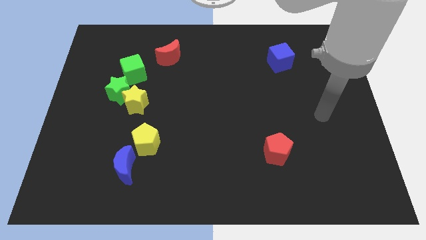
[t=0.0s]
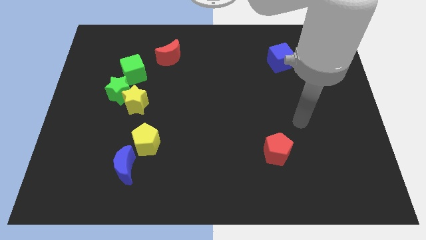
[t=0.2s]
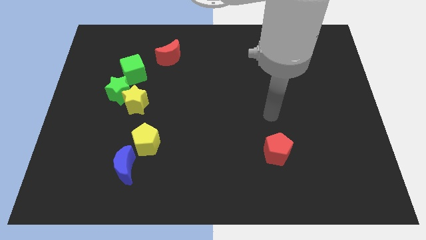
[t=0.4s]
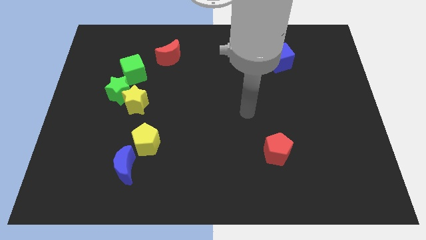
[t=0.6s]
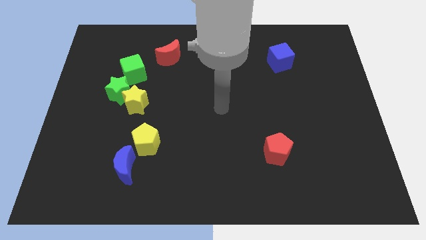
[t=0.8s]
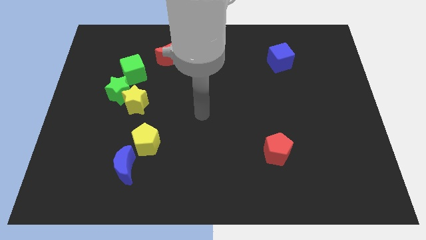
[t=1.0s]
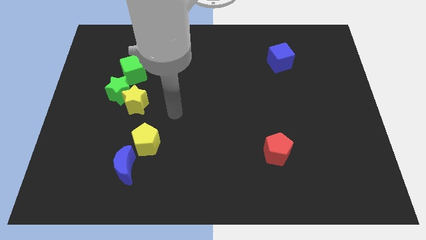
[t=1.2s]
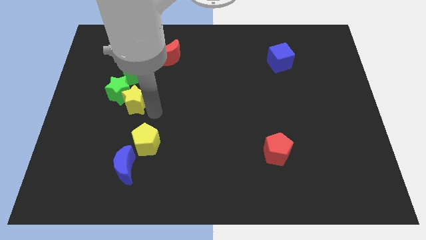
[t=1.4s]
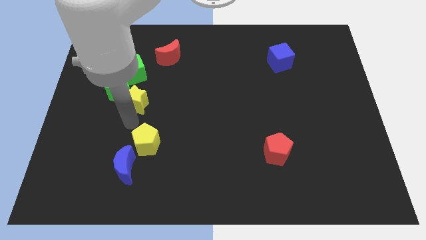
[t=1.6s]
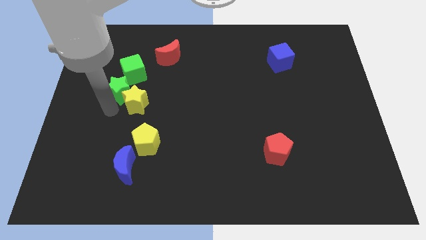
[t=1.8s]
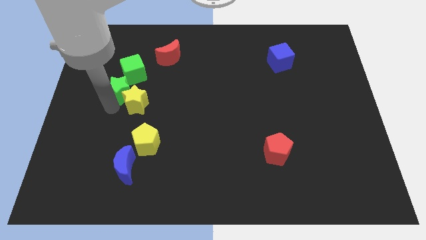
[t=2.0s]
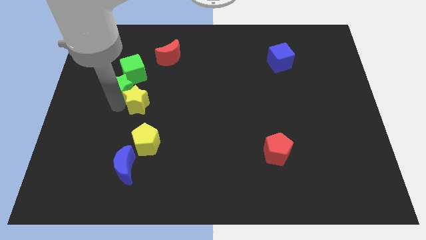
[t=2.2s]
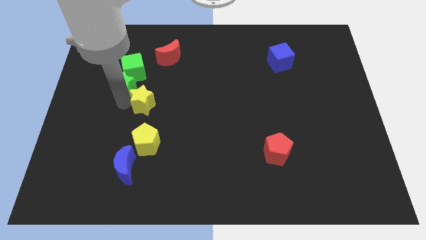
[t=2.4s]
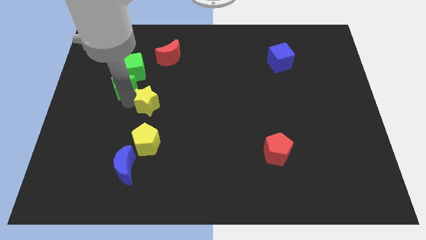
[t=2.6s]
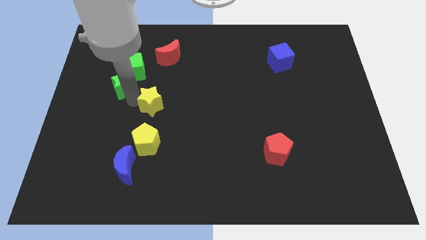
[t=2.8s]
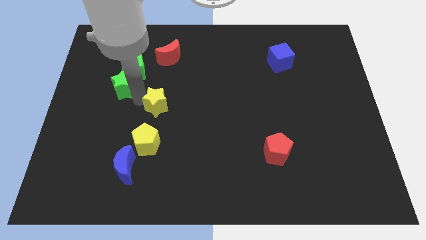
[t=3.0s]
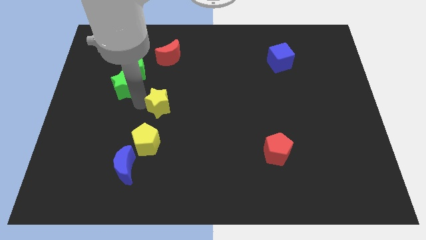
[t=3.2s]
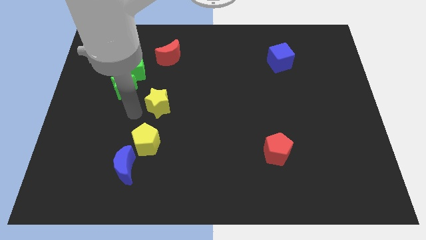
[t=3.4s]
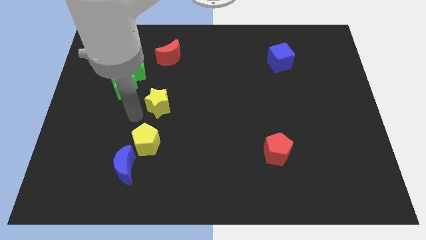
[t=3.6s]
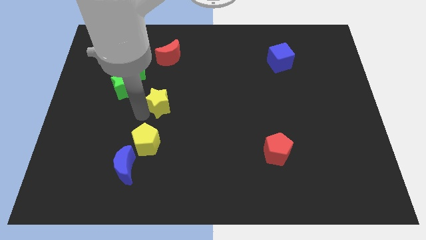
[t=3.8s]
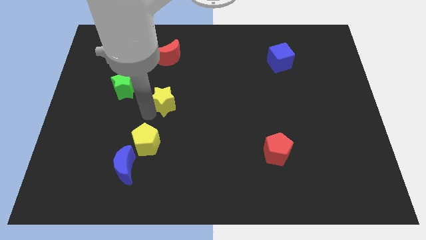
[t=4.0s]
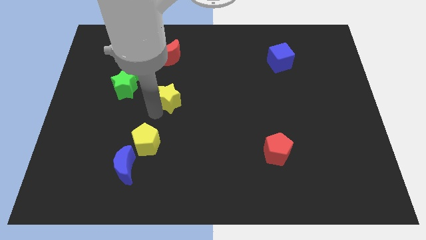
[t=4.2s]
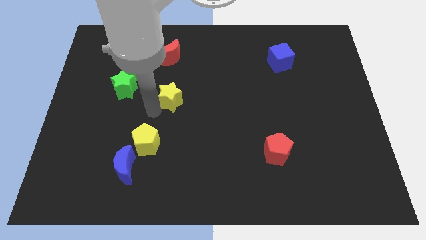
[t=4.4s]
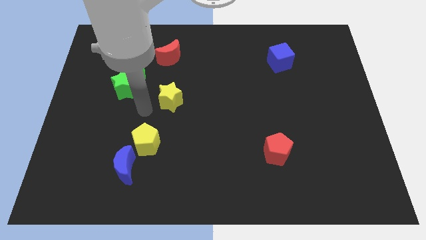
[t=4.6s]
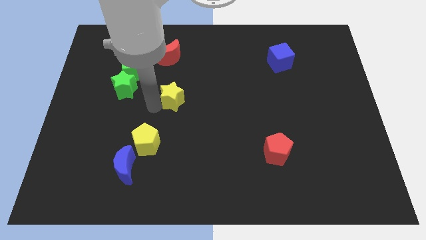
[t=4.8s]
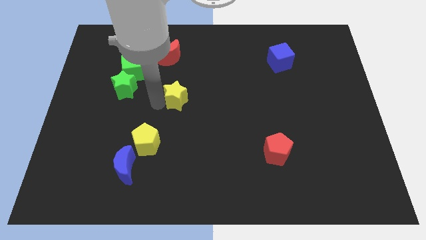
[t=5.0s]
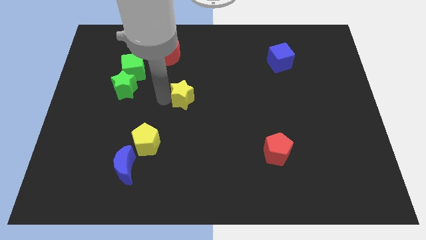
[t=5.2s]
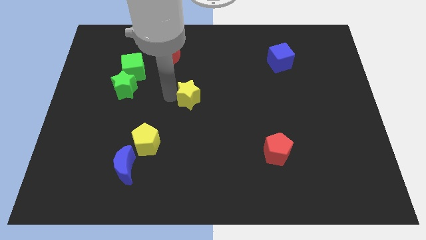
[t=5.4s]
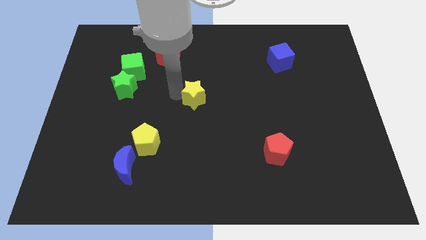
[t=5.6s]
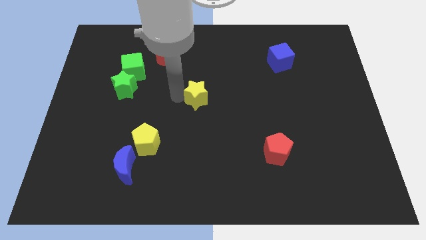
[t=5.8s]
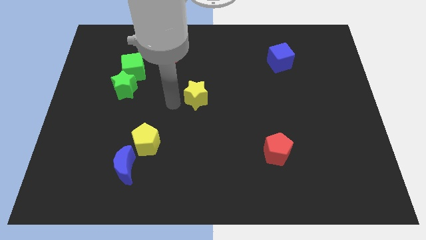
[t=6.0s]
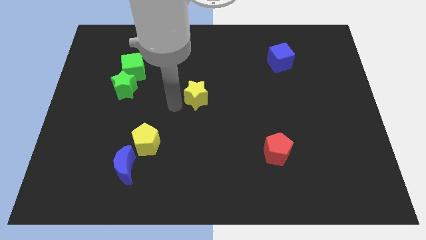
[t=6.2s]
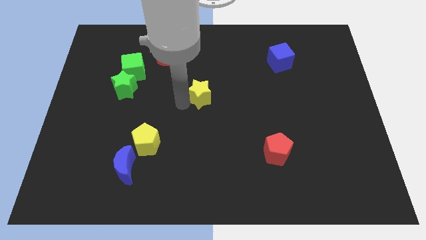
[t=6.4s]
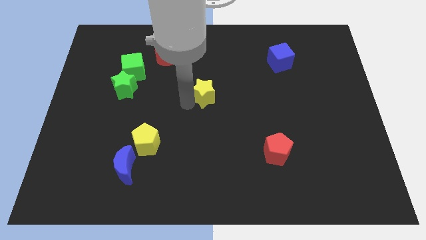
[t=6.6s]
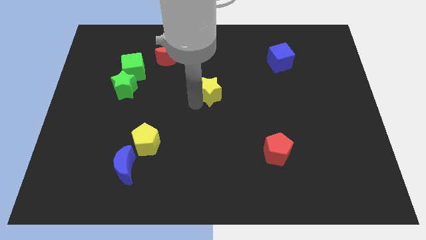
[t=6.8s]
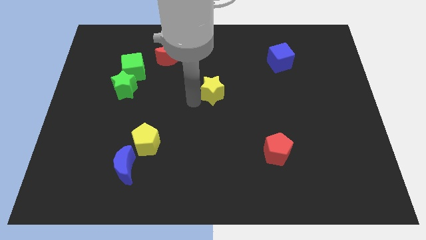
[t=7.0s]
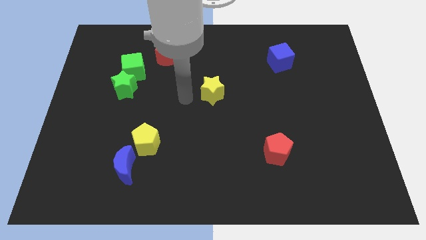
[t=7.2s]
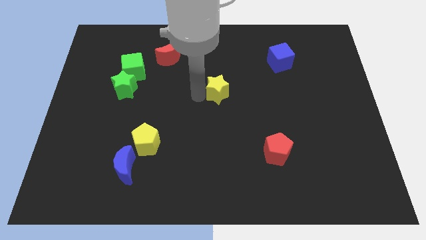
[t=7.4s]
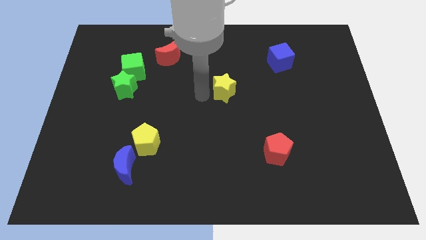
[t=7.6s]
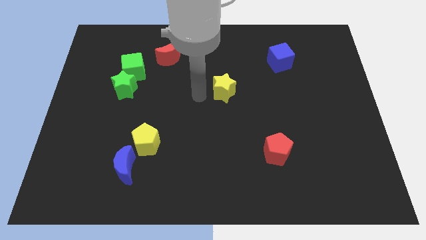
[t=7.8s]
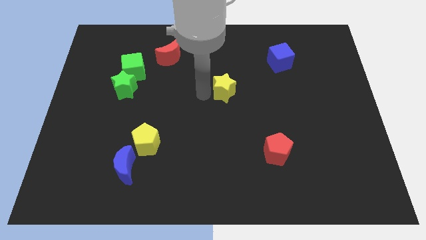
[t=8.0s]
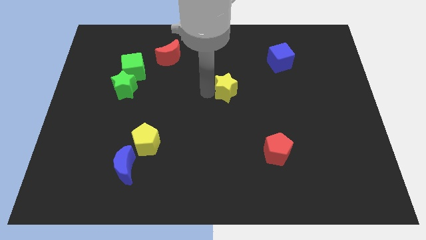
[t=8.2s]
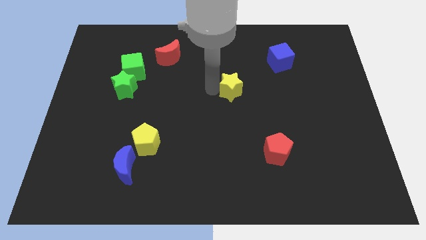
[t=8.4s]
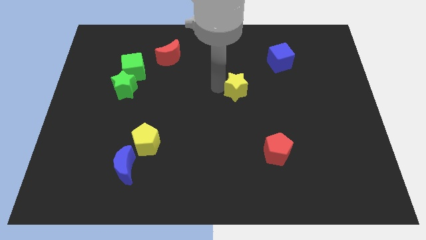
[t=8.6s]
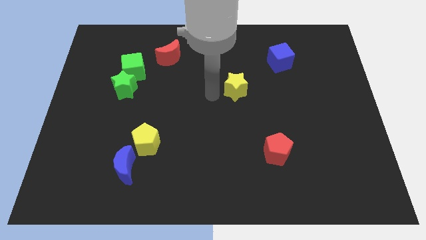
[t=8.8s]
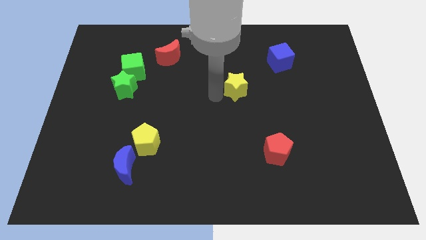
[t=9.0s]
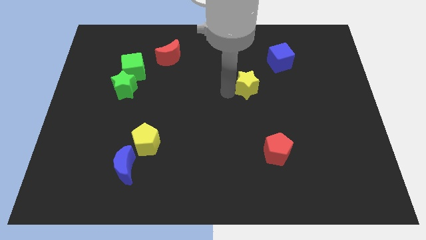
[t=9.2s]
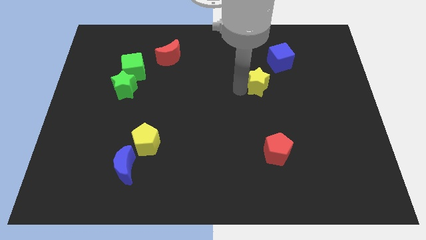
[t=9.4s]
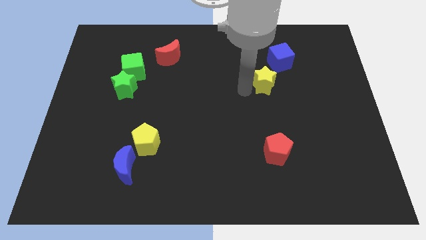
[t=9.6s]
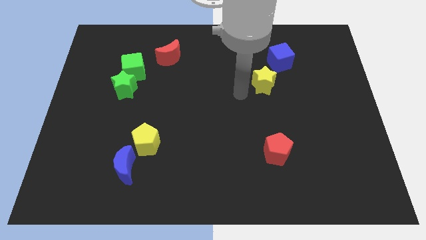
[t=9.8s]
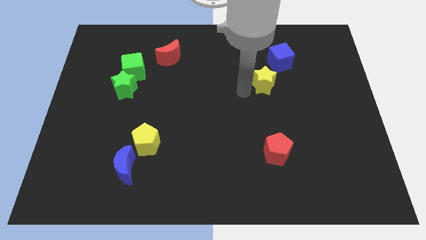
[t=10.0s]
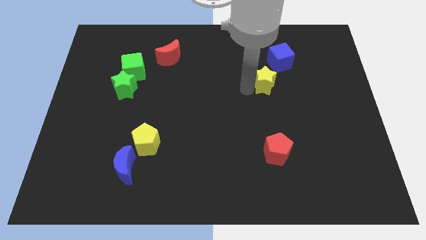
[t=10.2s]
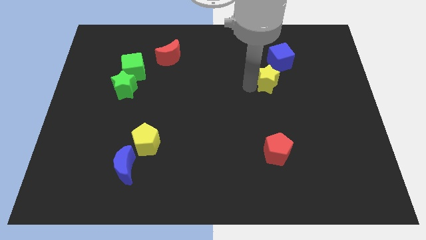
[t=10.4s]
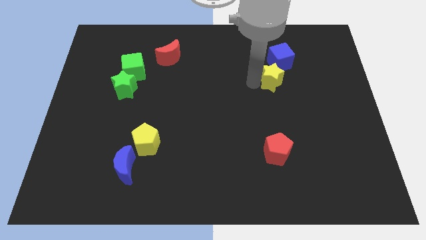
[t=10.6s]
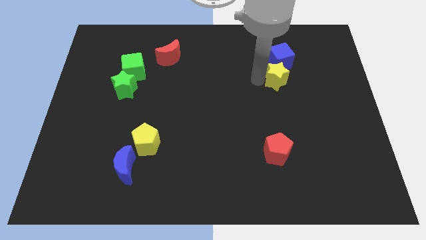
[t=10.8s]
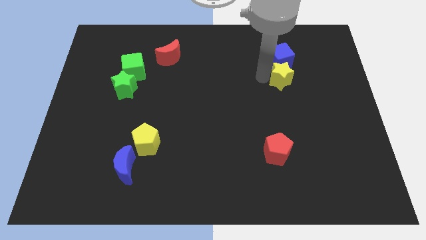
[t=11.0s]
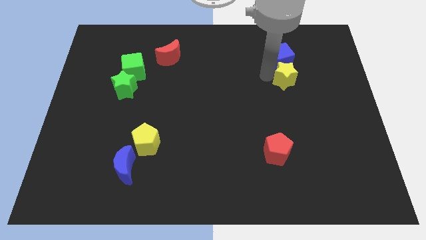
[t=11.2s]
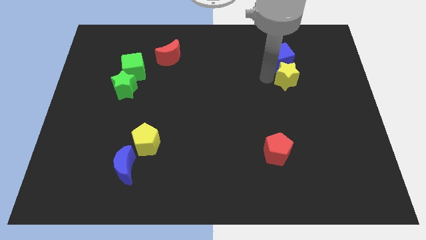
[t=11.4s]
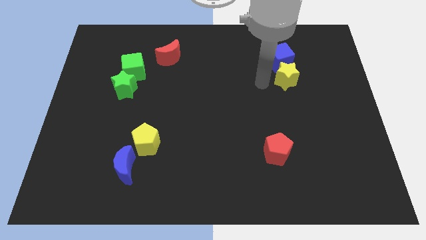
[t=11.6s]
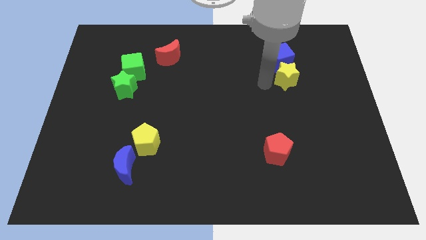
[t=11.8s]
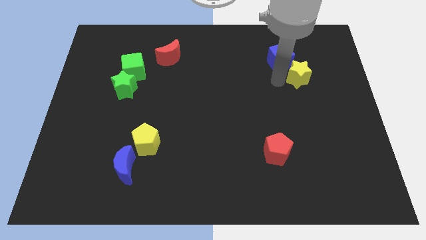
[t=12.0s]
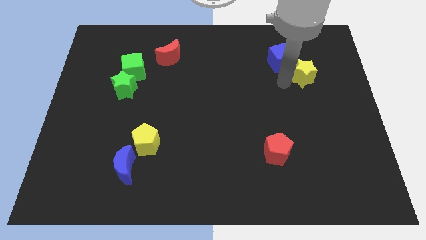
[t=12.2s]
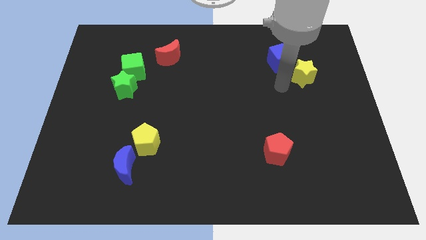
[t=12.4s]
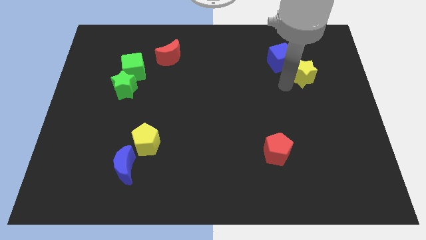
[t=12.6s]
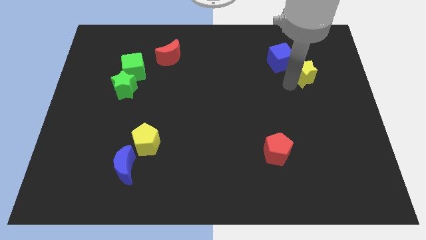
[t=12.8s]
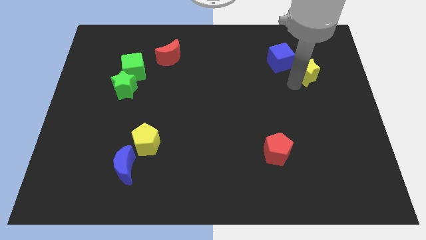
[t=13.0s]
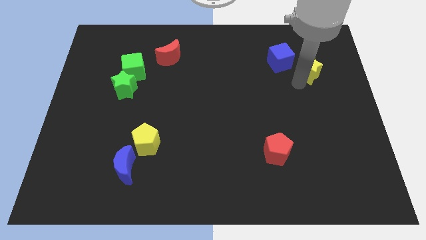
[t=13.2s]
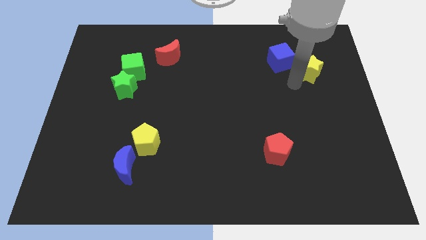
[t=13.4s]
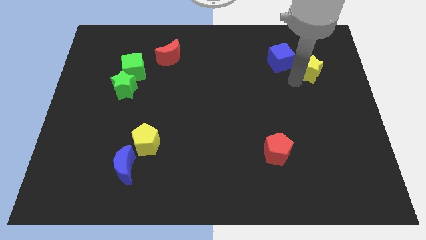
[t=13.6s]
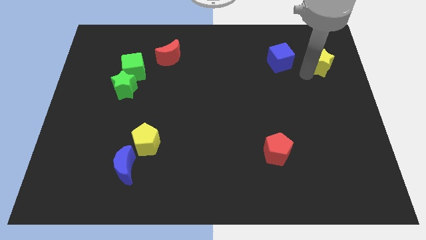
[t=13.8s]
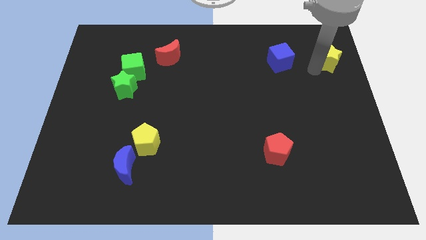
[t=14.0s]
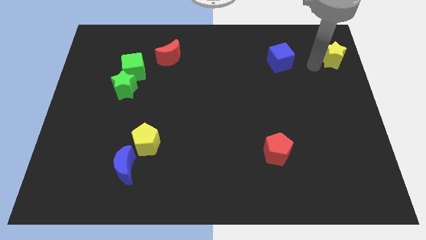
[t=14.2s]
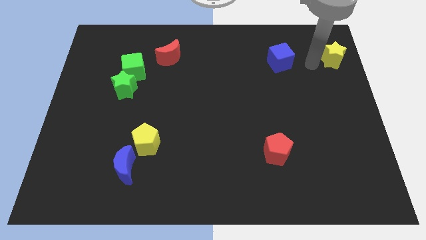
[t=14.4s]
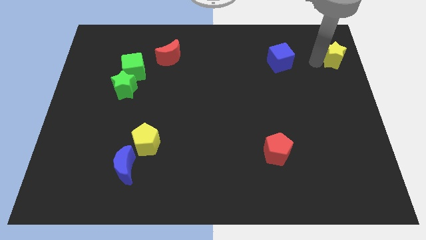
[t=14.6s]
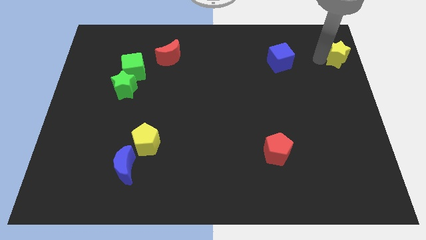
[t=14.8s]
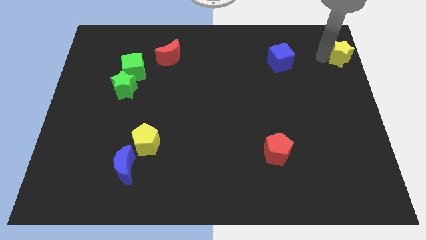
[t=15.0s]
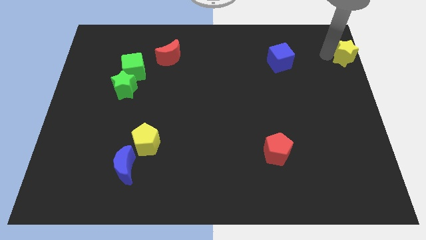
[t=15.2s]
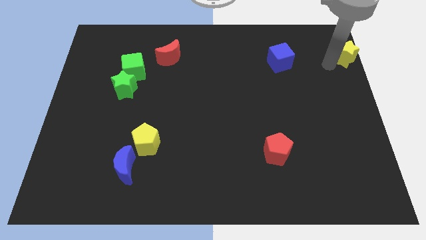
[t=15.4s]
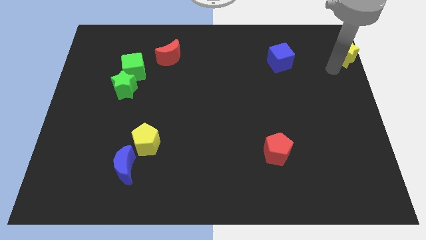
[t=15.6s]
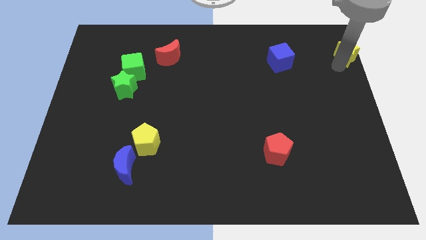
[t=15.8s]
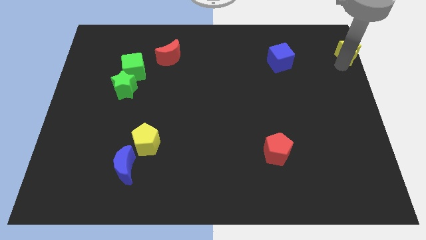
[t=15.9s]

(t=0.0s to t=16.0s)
slide the yellow star to the top right of the board
